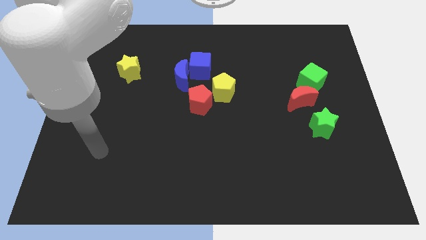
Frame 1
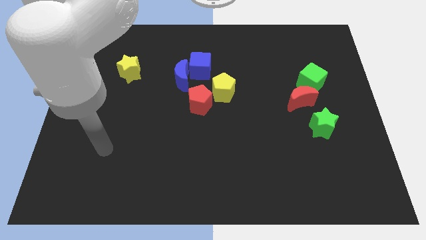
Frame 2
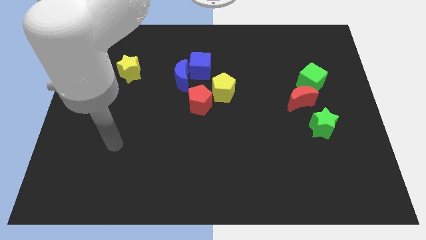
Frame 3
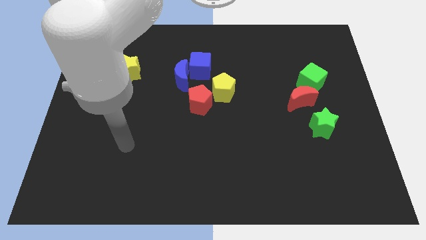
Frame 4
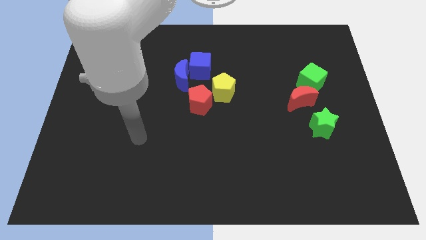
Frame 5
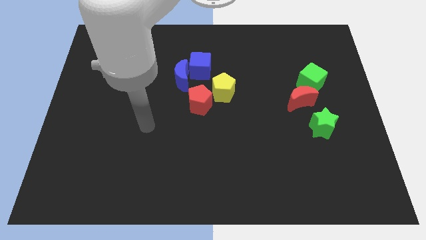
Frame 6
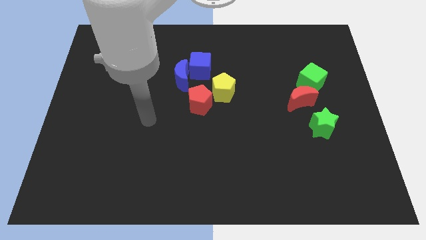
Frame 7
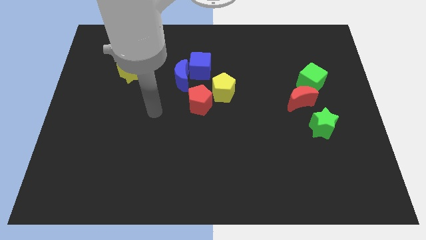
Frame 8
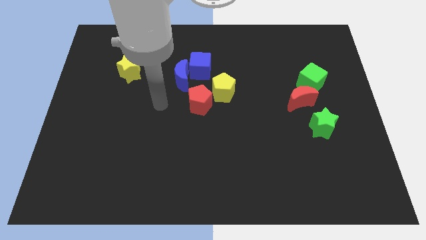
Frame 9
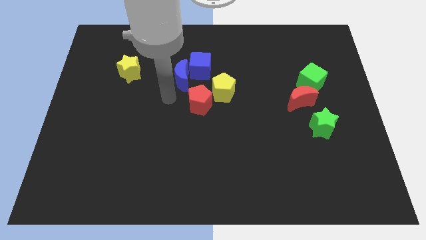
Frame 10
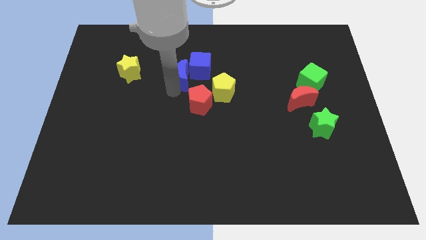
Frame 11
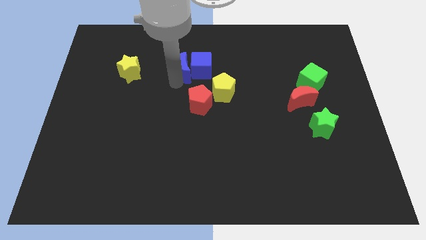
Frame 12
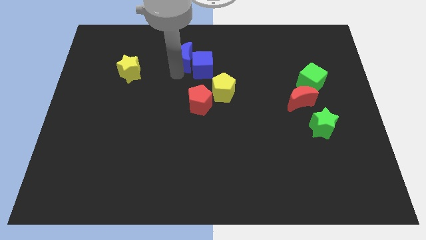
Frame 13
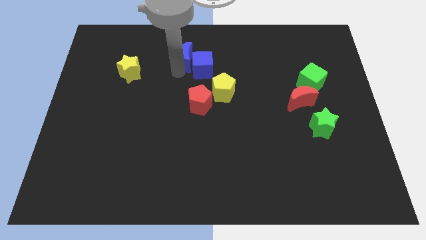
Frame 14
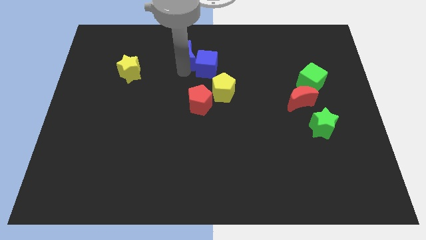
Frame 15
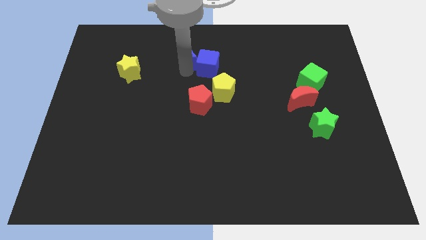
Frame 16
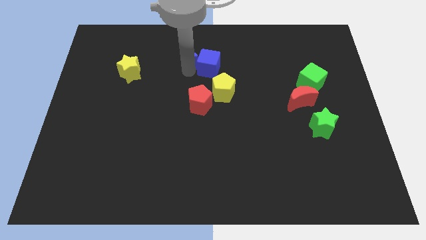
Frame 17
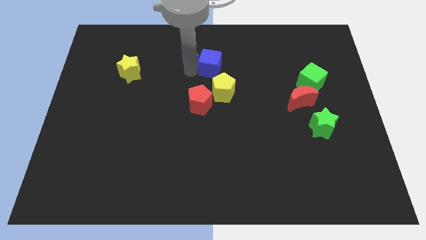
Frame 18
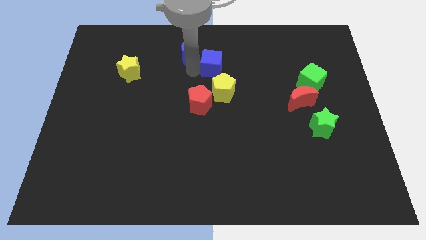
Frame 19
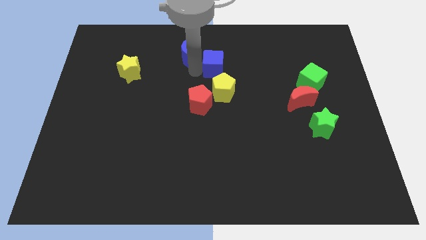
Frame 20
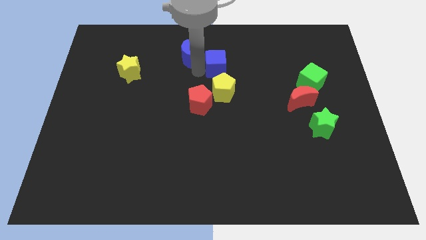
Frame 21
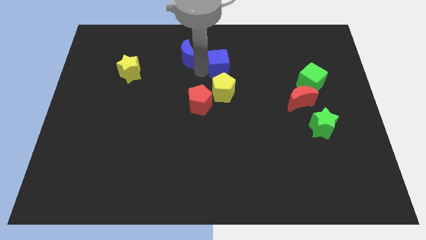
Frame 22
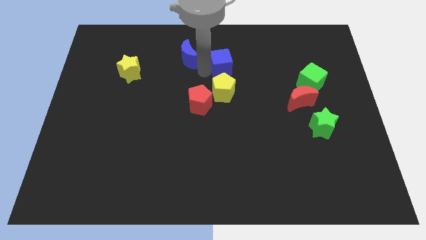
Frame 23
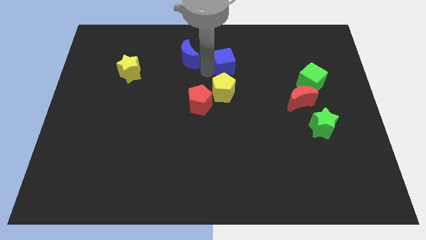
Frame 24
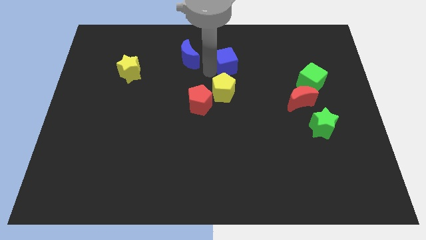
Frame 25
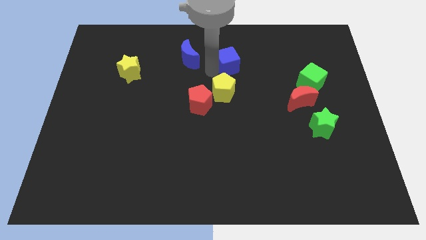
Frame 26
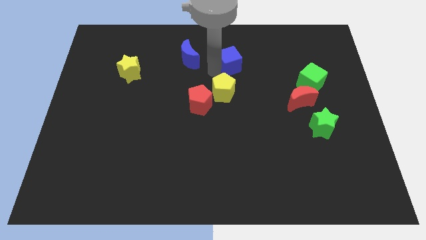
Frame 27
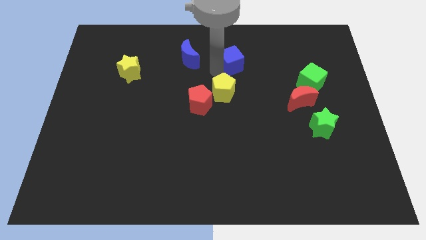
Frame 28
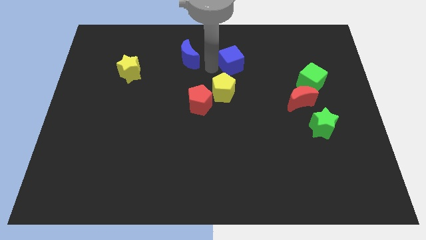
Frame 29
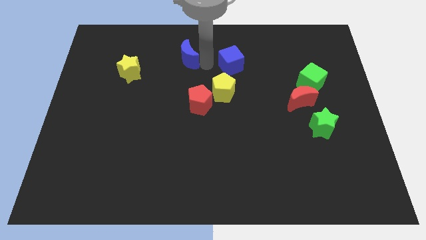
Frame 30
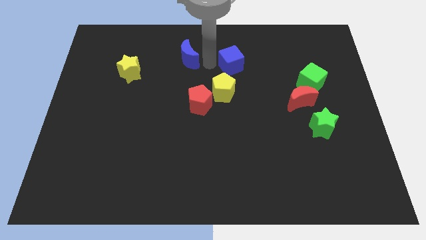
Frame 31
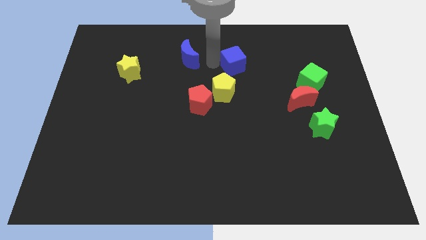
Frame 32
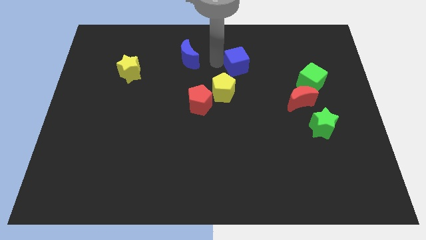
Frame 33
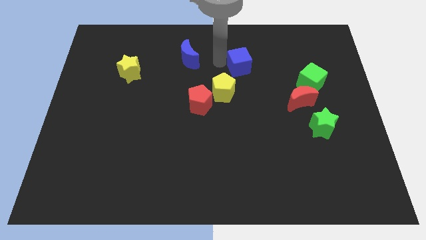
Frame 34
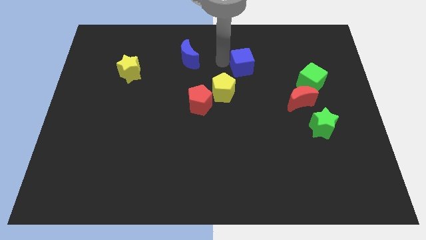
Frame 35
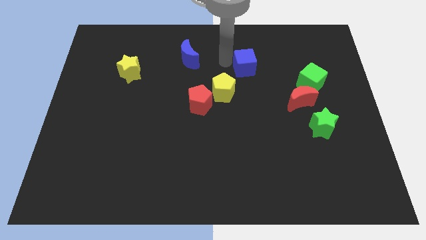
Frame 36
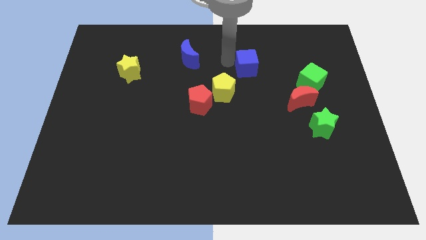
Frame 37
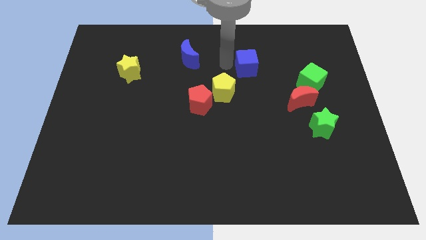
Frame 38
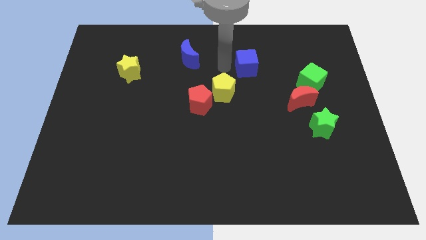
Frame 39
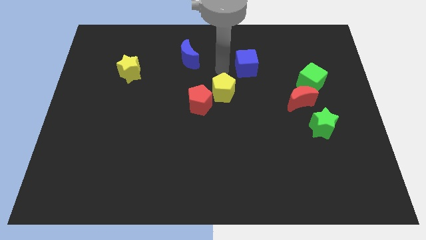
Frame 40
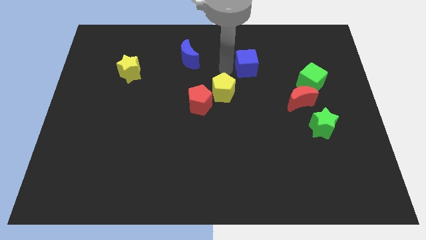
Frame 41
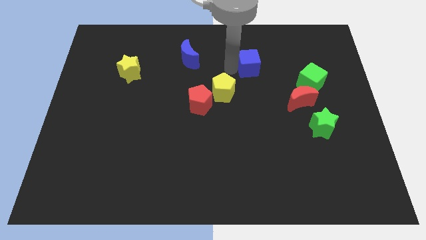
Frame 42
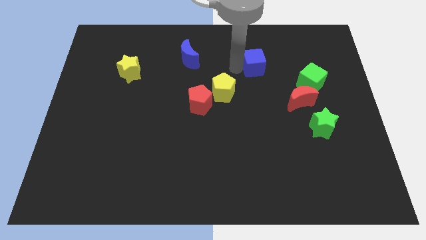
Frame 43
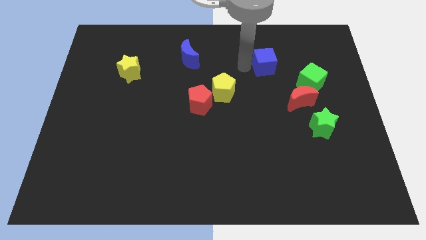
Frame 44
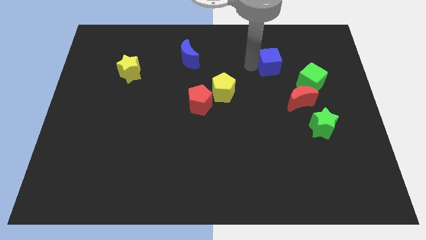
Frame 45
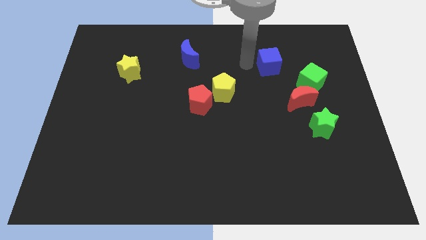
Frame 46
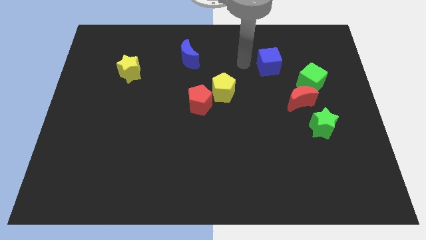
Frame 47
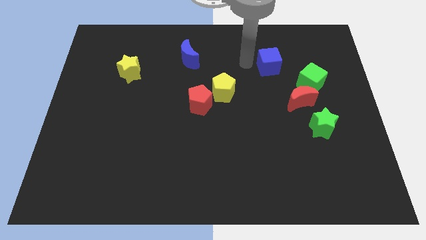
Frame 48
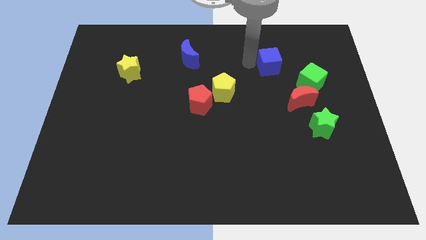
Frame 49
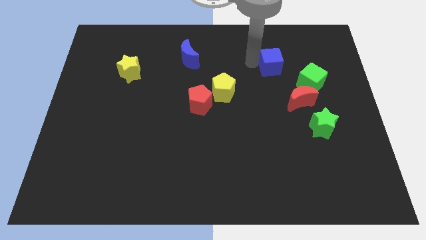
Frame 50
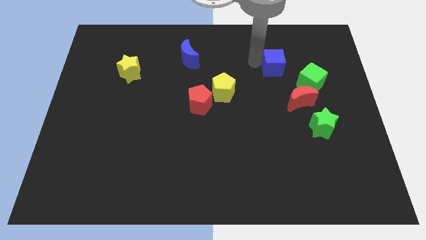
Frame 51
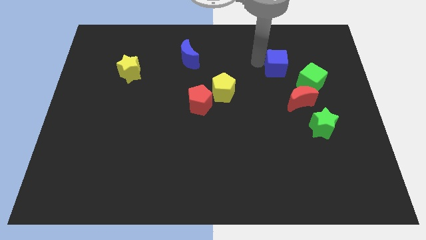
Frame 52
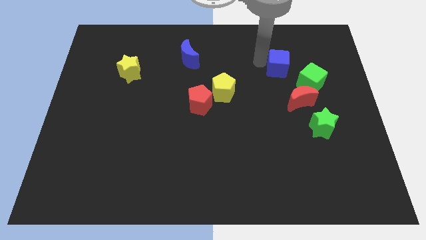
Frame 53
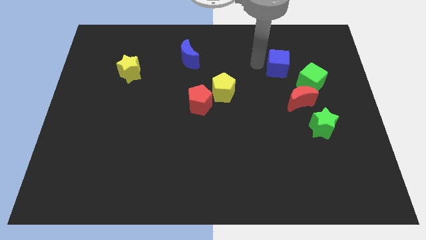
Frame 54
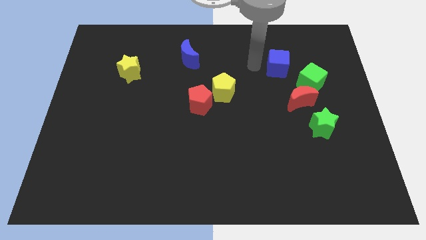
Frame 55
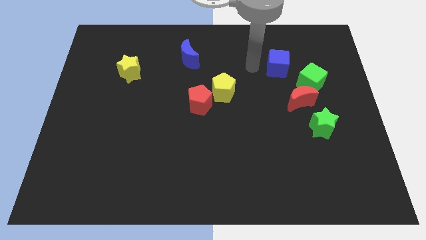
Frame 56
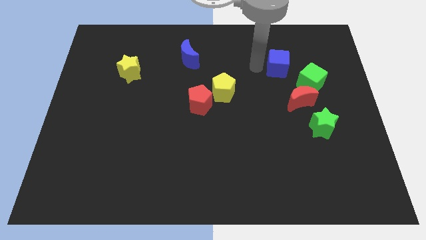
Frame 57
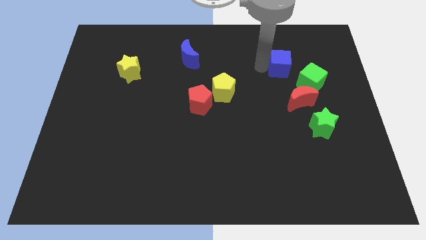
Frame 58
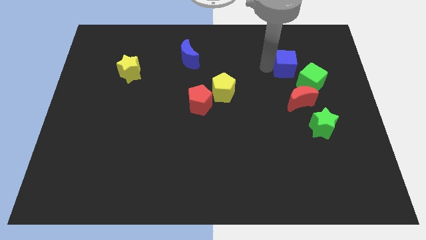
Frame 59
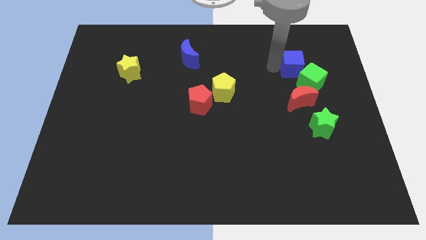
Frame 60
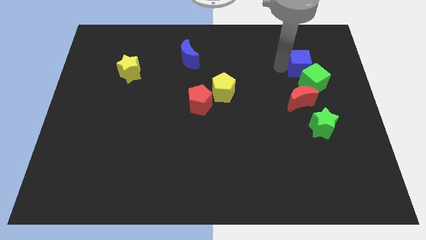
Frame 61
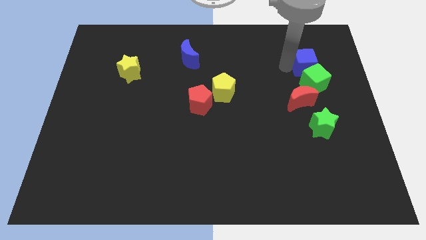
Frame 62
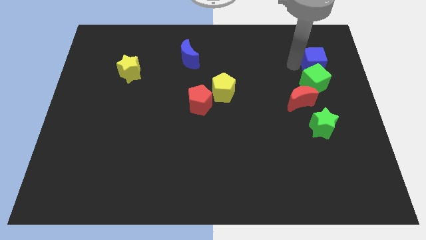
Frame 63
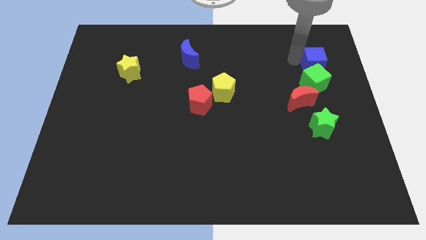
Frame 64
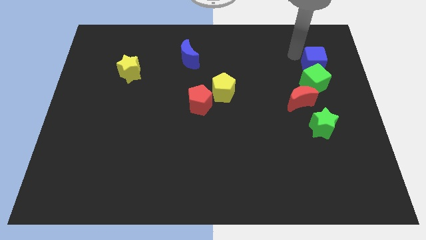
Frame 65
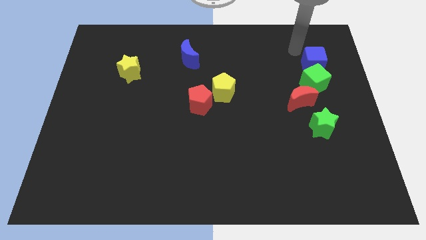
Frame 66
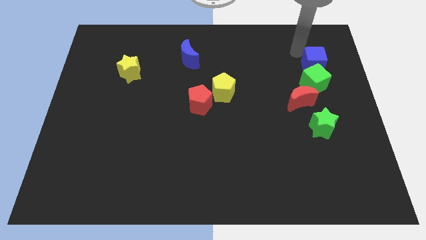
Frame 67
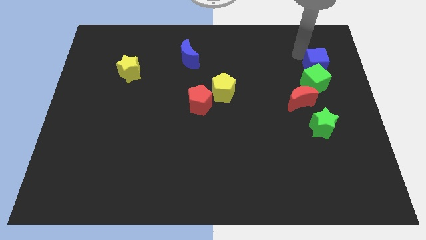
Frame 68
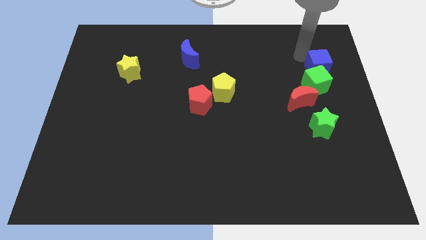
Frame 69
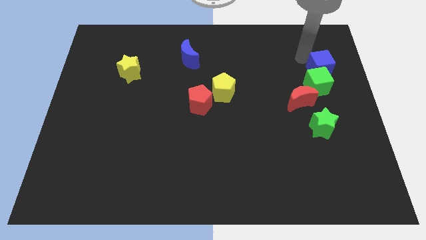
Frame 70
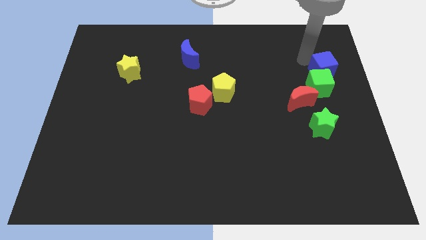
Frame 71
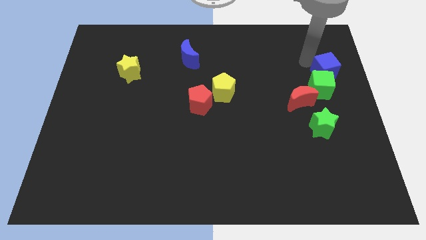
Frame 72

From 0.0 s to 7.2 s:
move the blue cube to the center right
